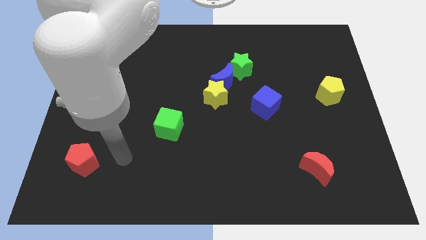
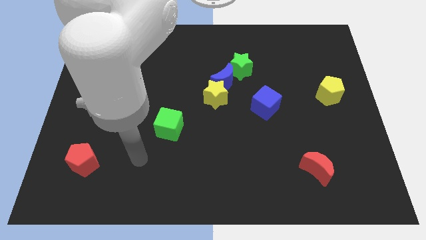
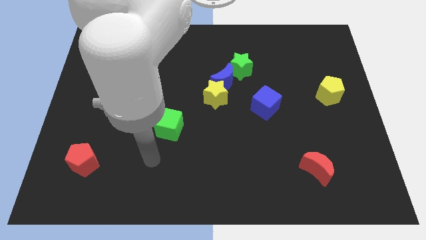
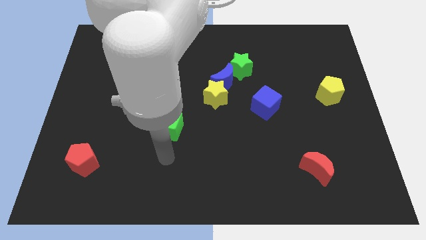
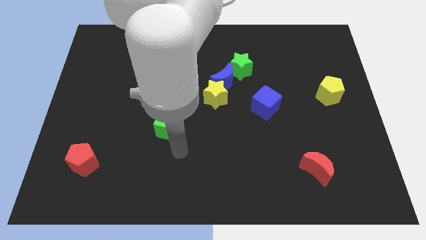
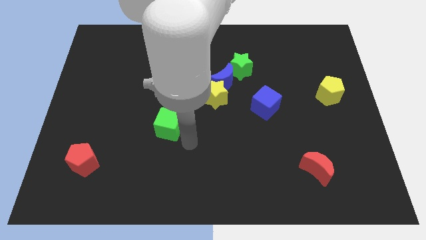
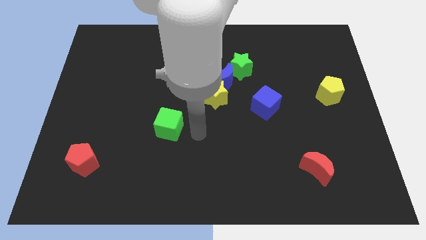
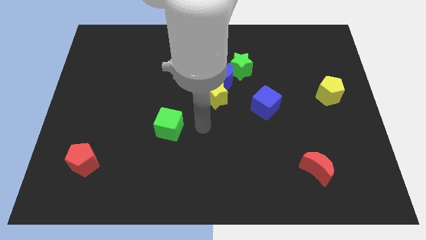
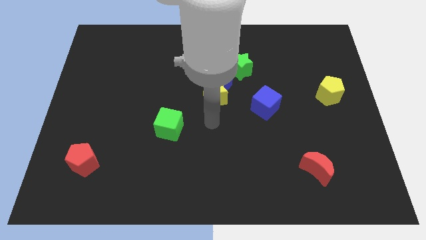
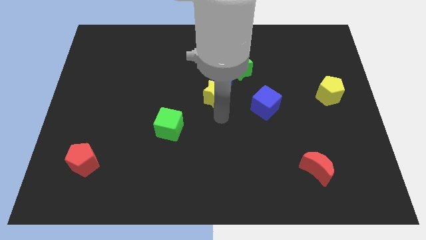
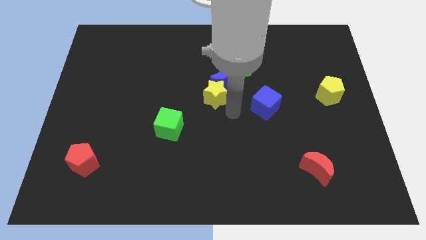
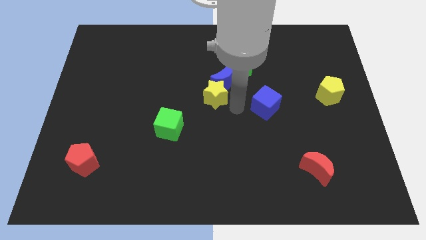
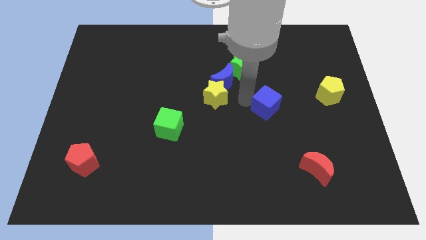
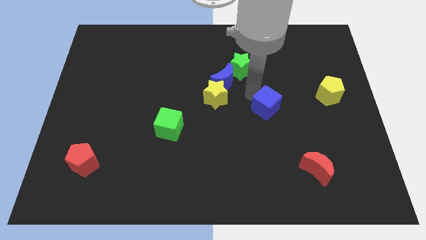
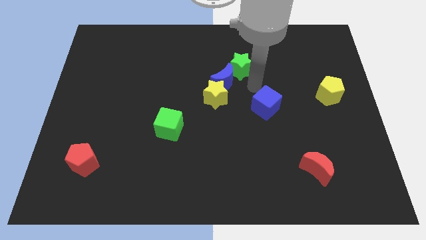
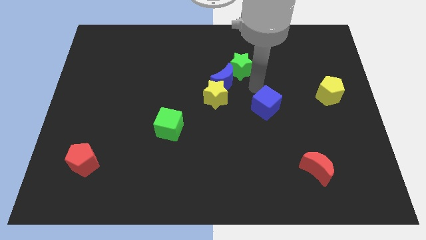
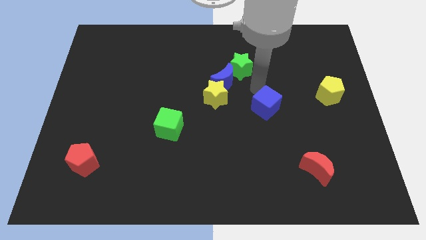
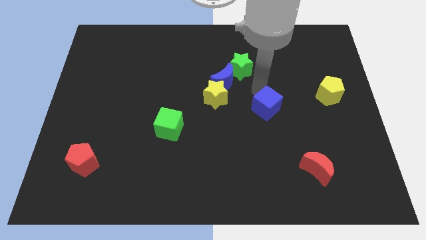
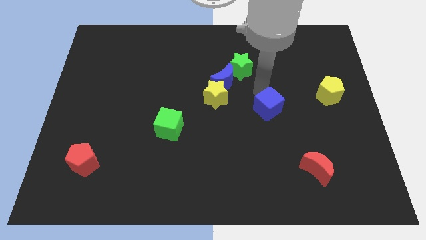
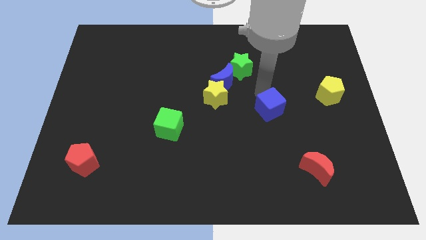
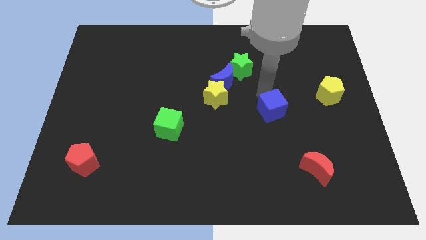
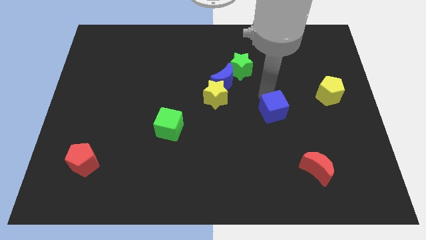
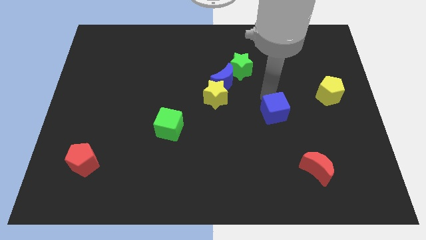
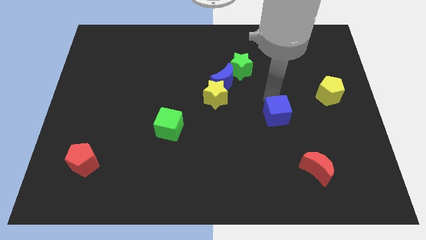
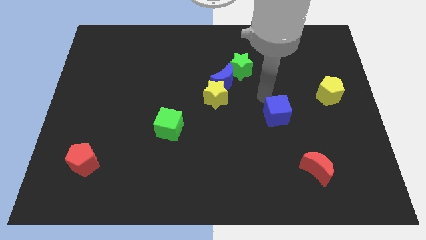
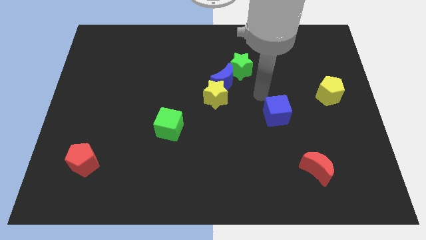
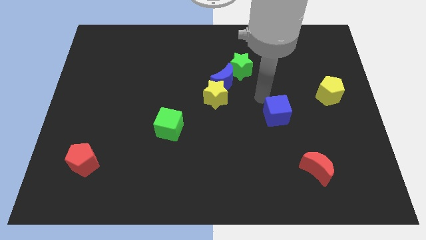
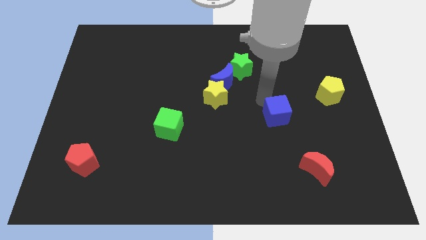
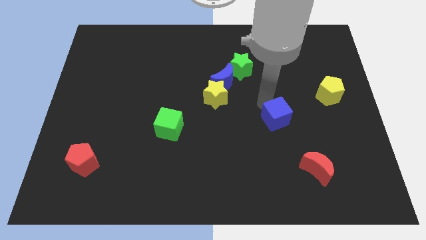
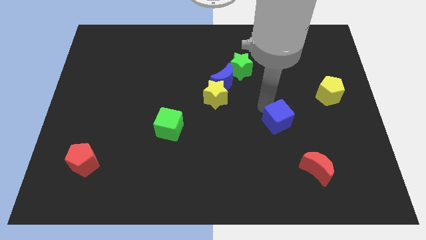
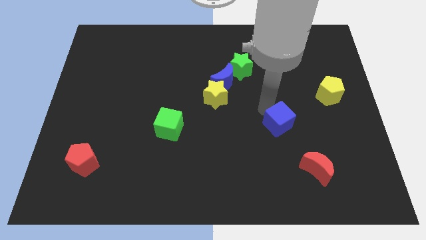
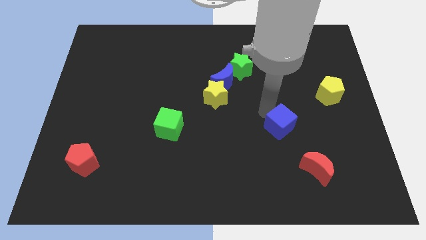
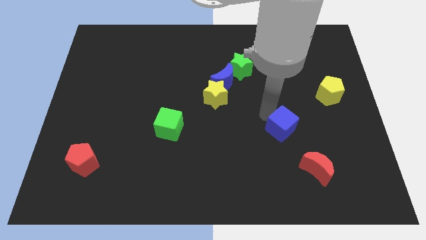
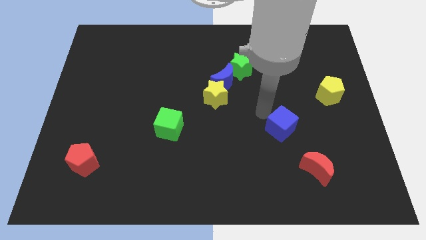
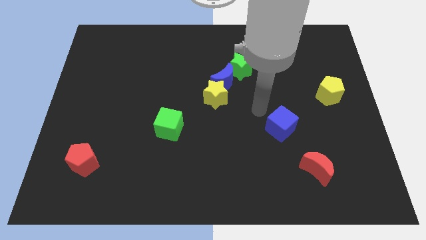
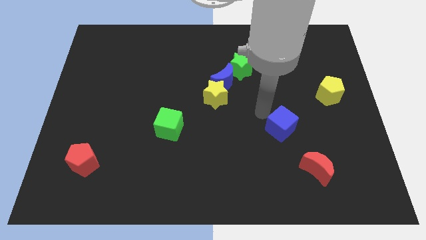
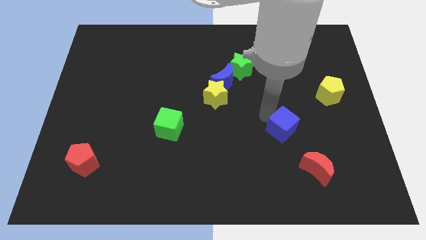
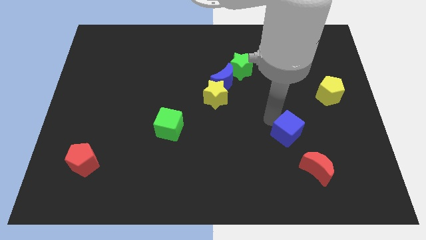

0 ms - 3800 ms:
move the blue cube downwards and right a little bit

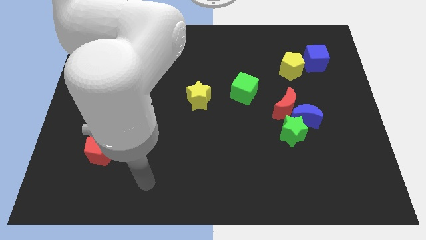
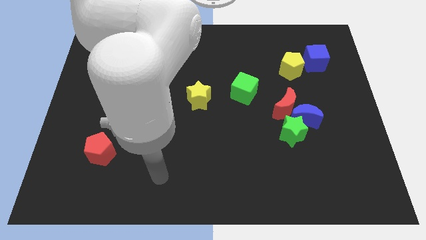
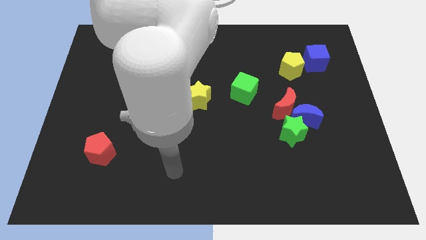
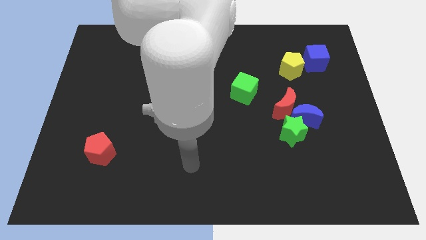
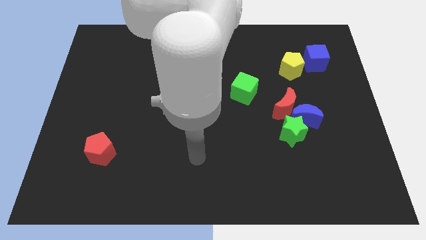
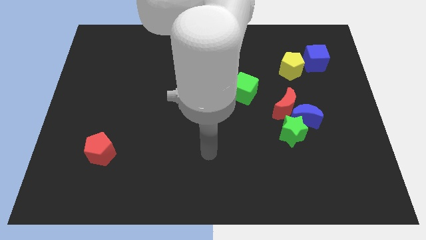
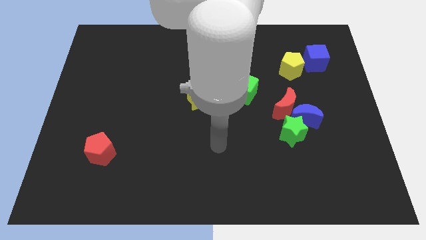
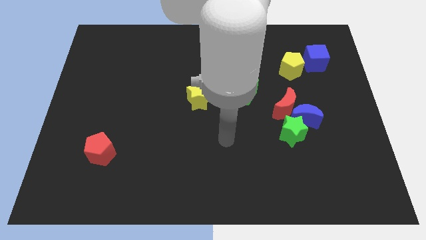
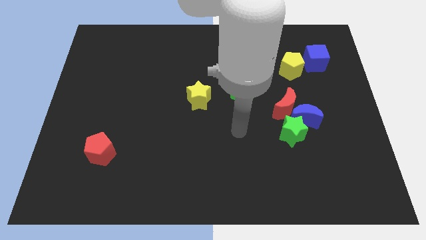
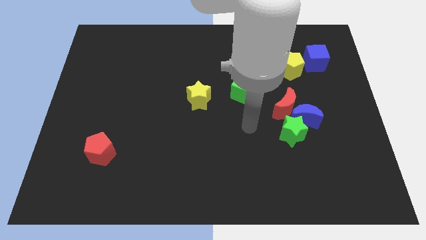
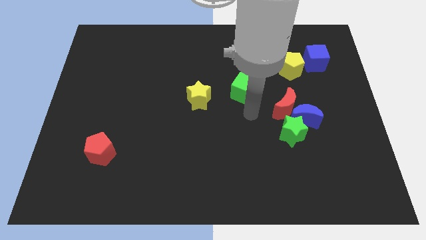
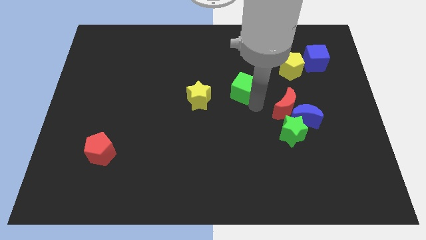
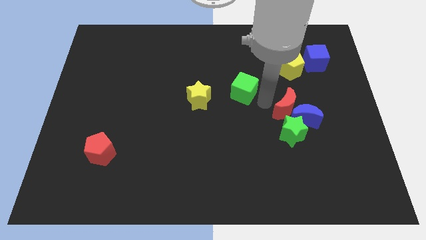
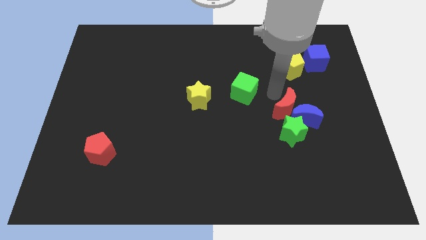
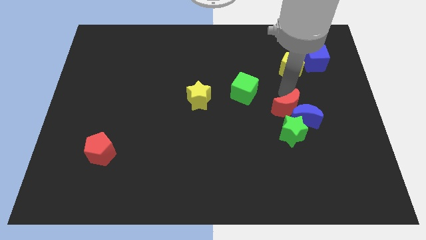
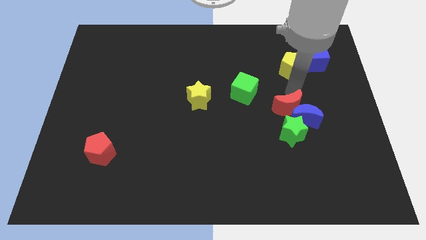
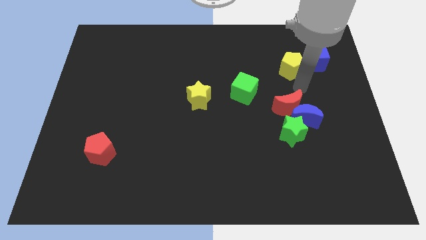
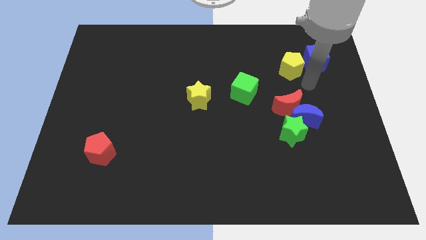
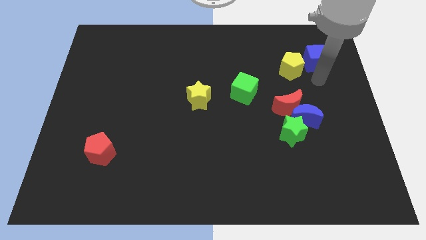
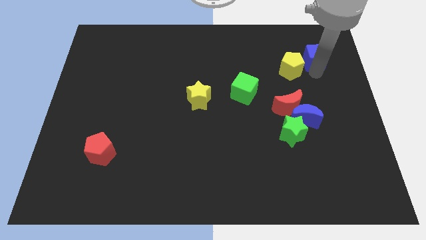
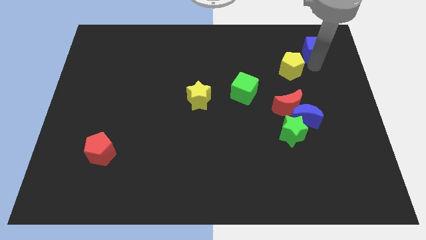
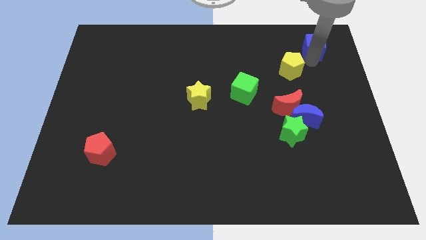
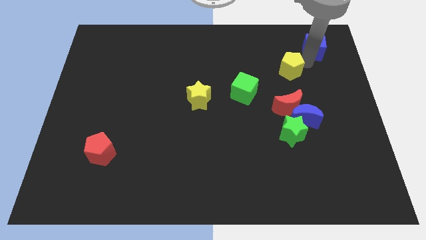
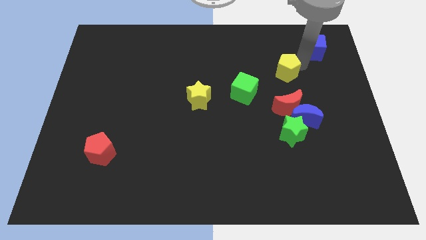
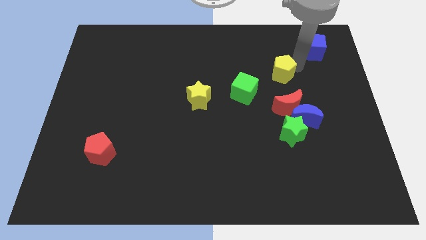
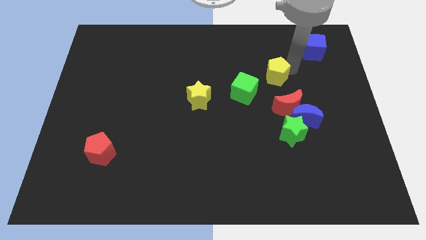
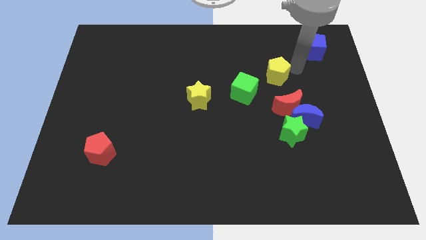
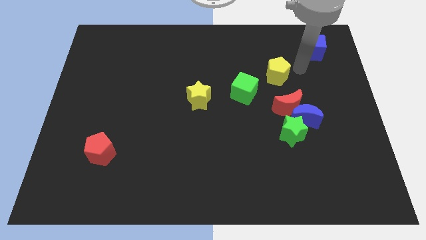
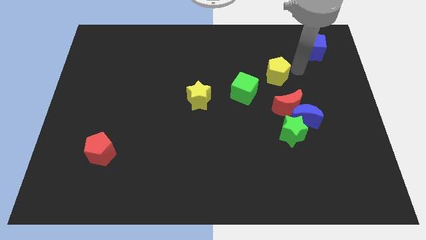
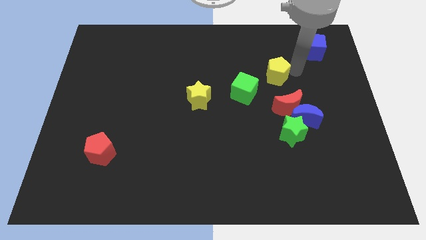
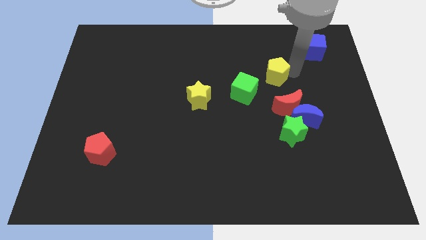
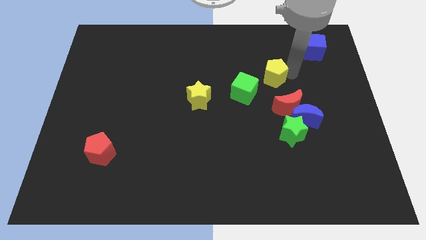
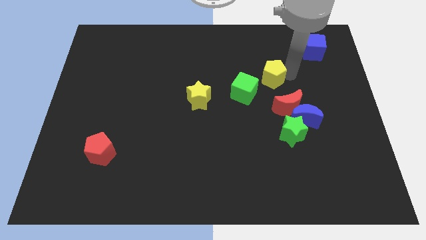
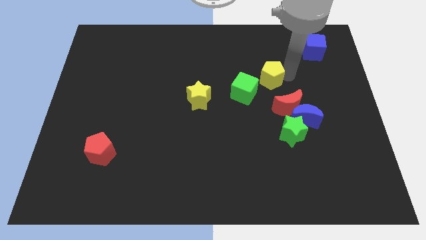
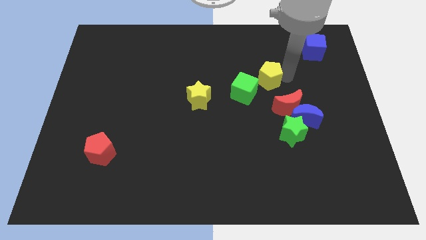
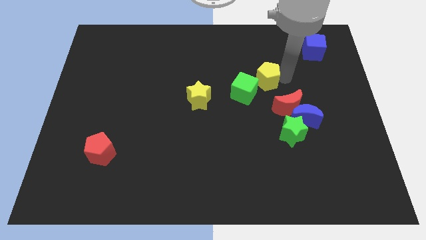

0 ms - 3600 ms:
push the yellow pentagon somewhat downwards and then left

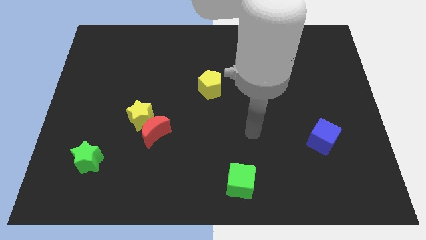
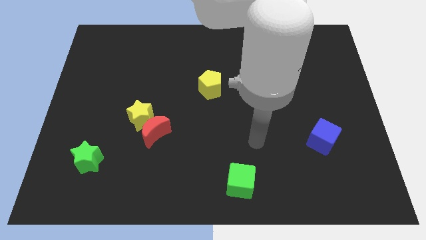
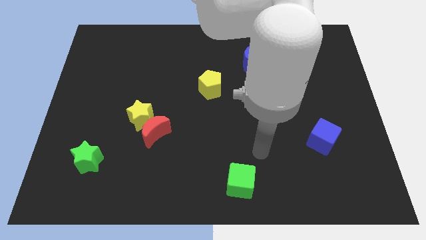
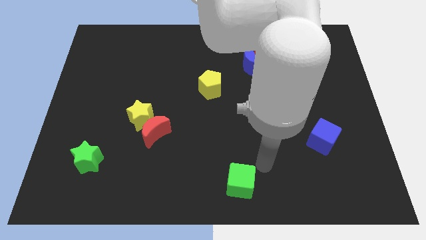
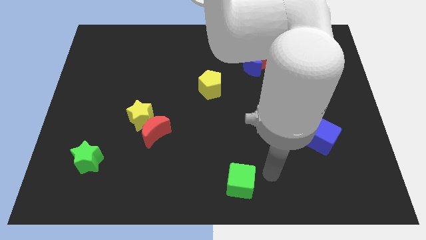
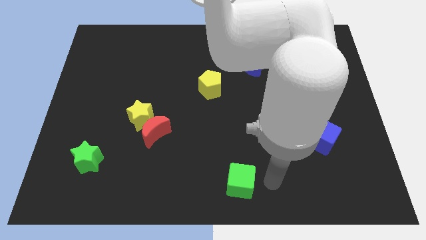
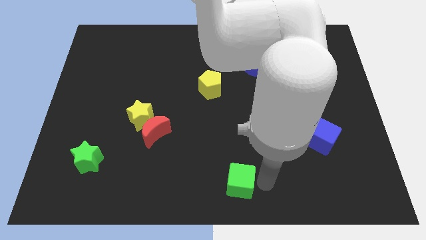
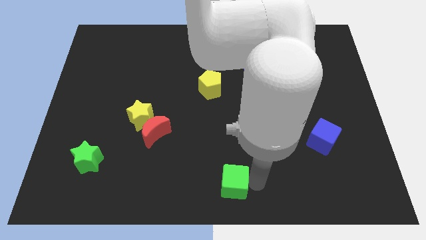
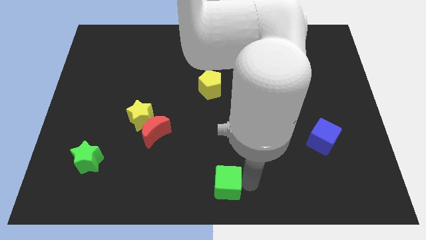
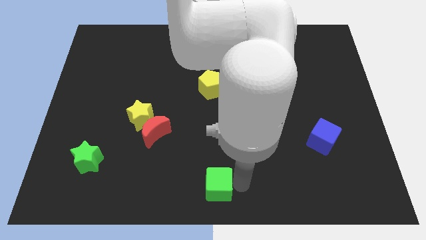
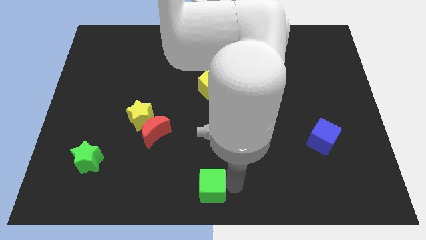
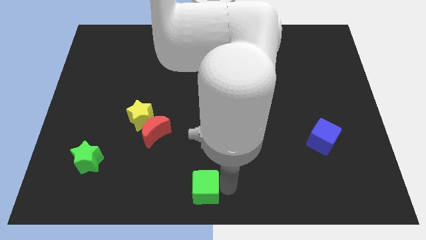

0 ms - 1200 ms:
push the green cube a little to the left
